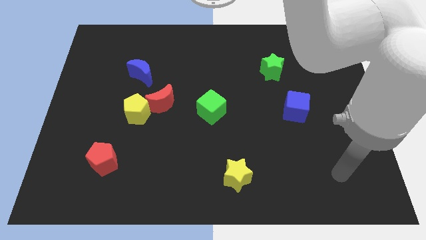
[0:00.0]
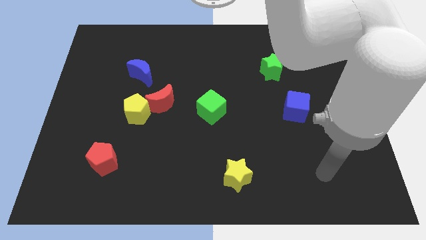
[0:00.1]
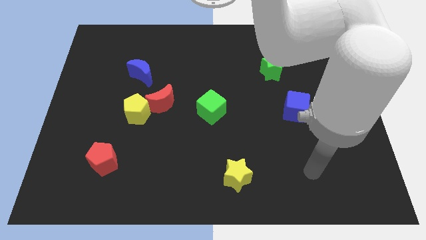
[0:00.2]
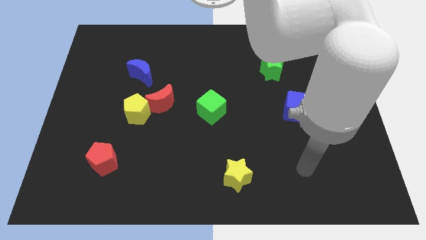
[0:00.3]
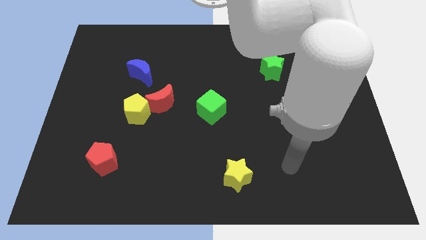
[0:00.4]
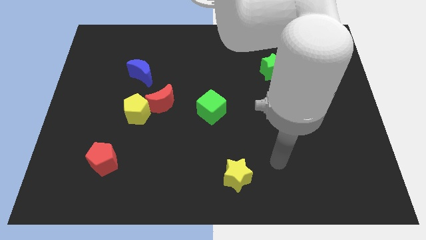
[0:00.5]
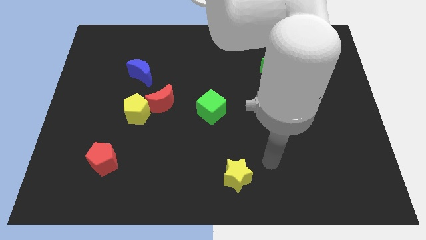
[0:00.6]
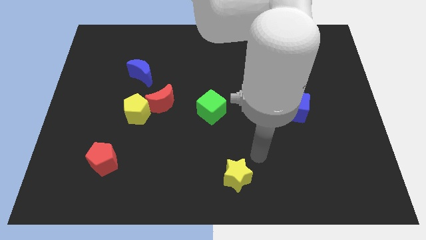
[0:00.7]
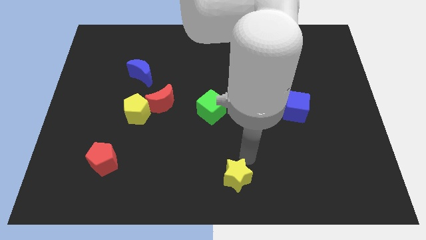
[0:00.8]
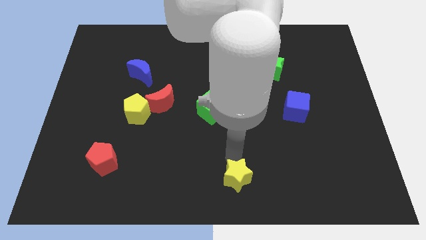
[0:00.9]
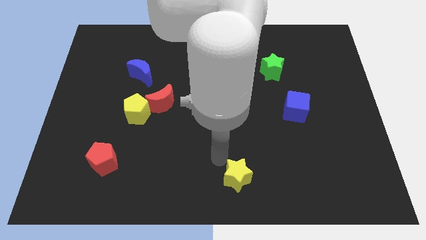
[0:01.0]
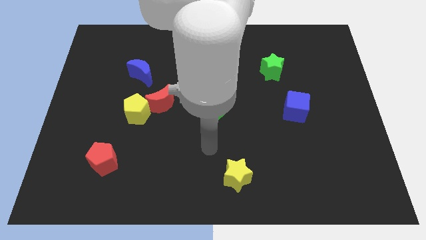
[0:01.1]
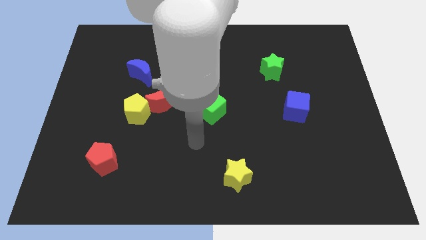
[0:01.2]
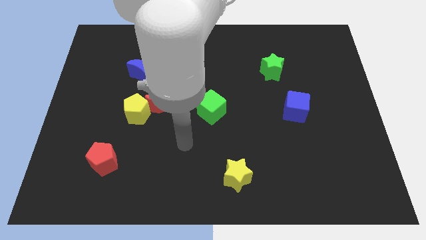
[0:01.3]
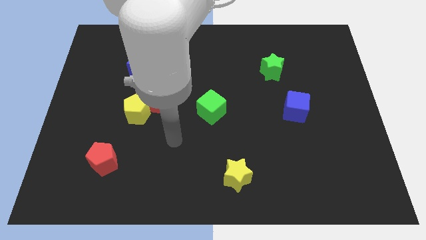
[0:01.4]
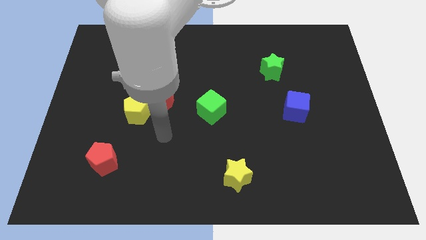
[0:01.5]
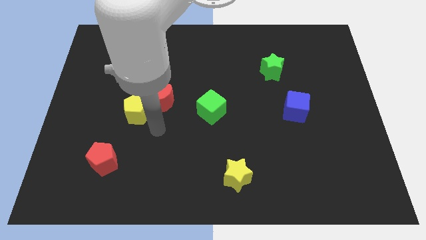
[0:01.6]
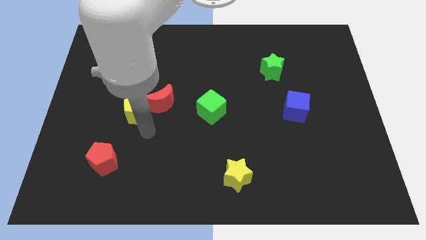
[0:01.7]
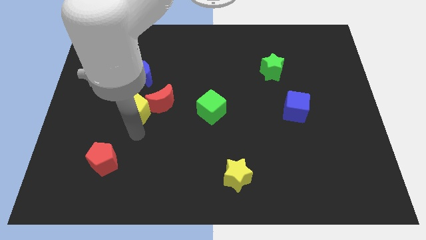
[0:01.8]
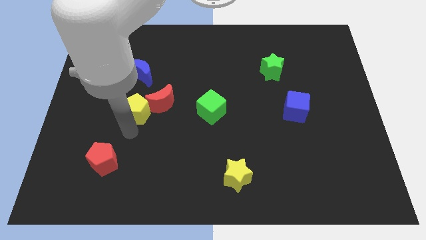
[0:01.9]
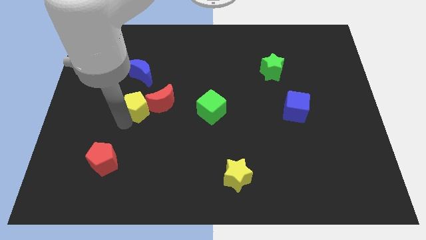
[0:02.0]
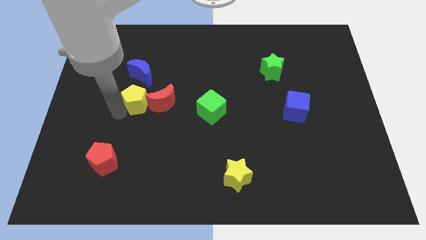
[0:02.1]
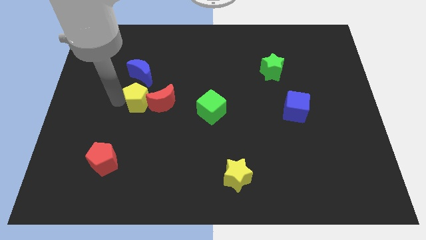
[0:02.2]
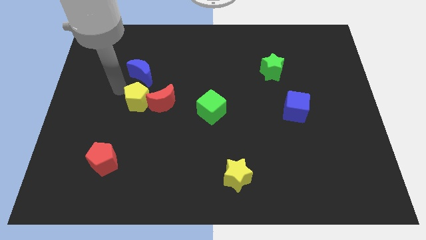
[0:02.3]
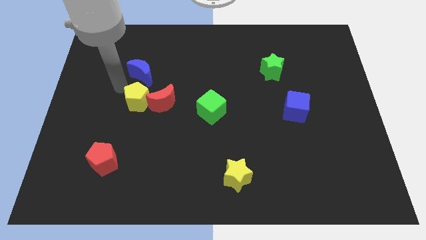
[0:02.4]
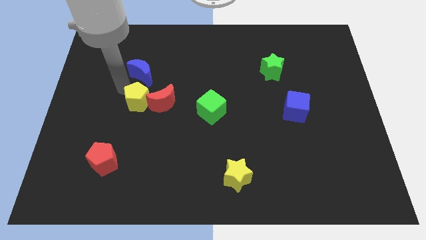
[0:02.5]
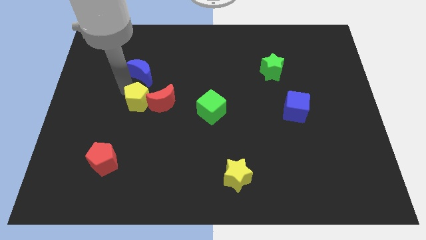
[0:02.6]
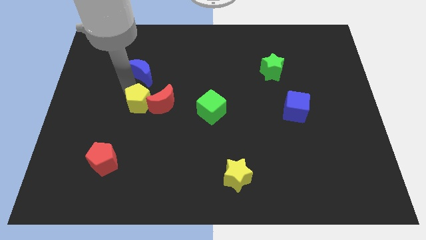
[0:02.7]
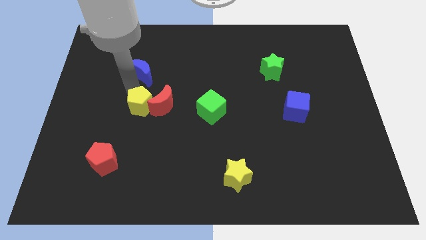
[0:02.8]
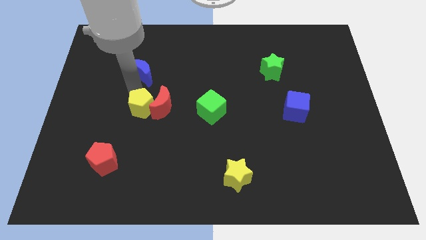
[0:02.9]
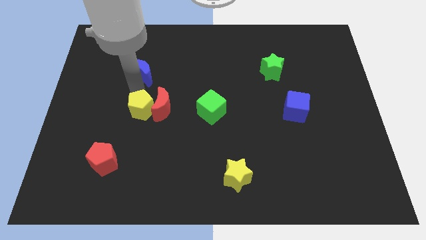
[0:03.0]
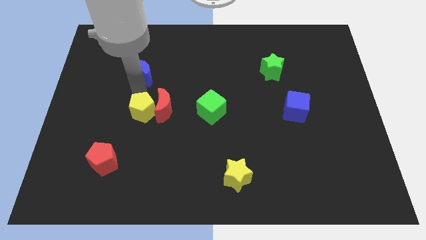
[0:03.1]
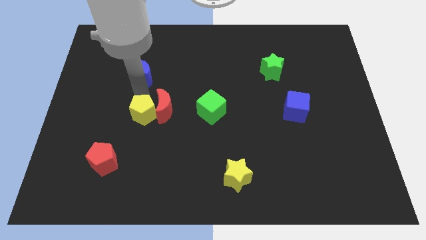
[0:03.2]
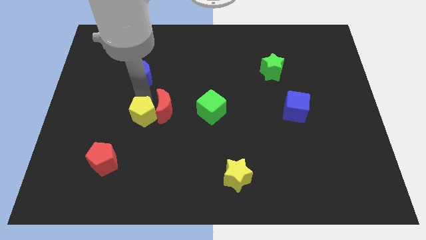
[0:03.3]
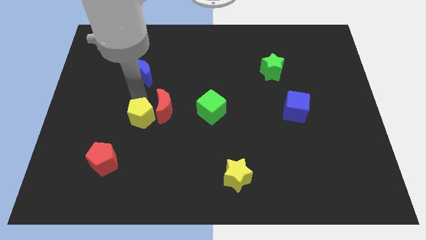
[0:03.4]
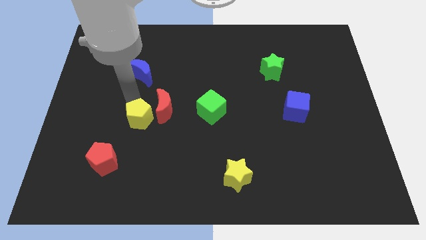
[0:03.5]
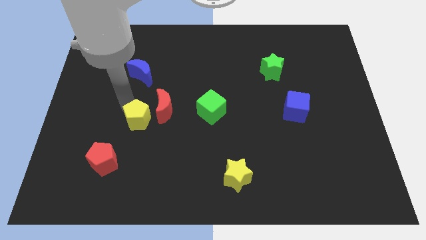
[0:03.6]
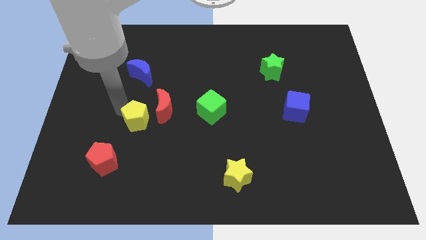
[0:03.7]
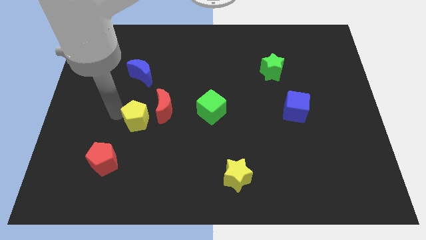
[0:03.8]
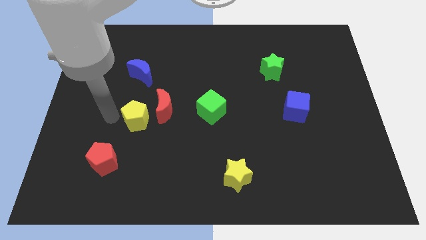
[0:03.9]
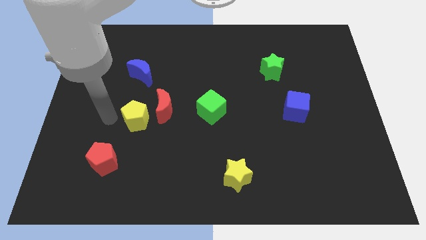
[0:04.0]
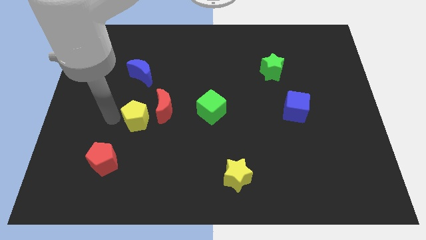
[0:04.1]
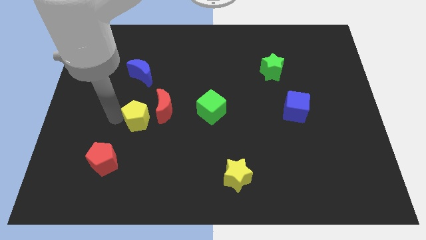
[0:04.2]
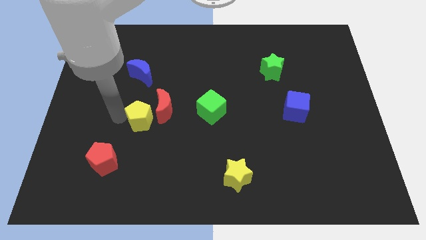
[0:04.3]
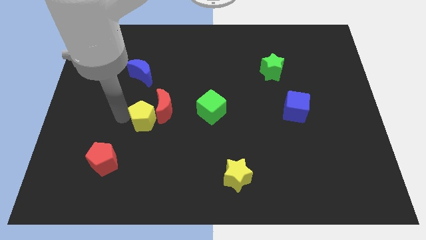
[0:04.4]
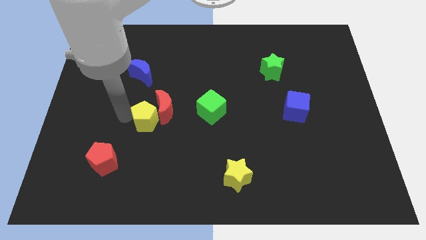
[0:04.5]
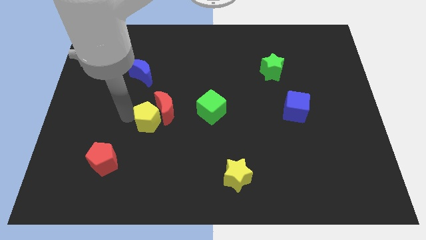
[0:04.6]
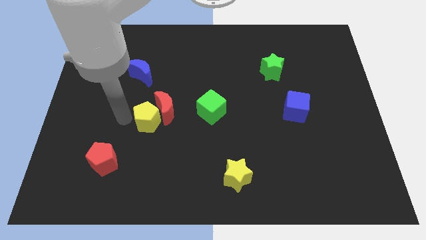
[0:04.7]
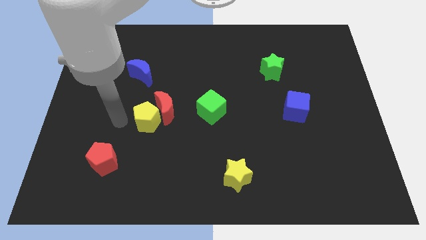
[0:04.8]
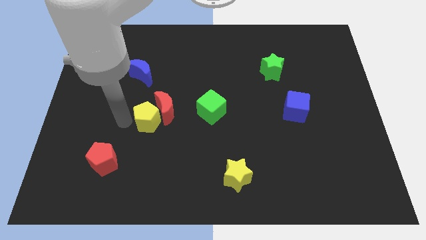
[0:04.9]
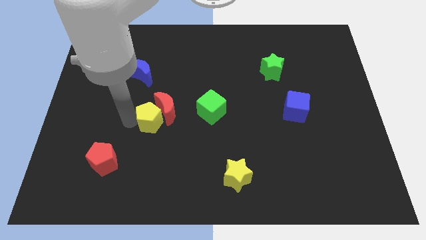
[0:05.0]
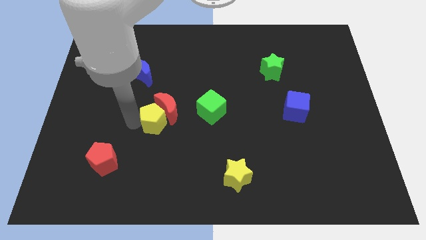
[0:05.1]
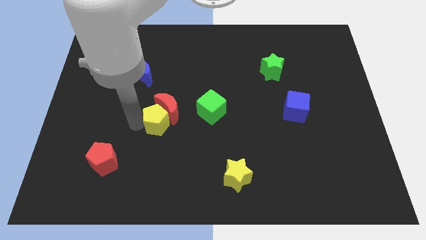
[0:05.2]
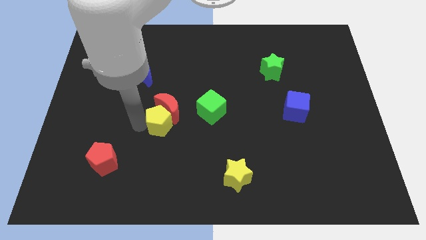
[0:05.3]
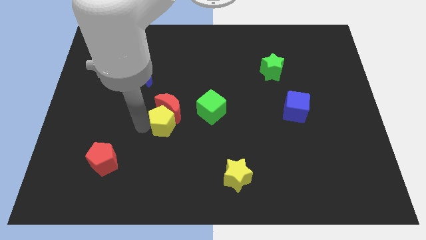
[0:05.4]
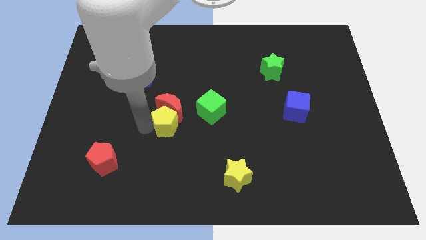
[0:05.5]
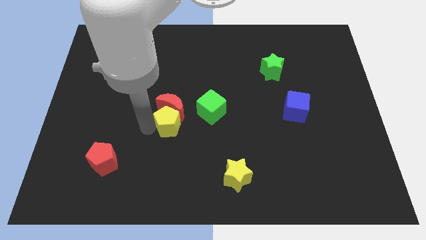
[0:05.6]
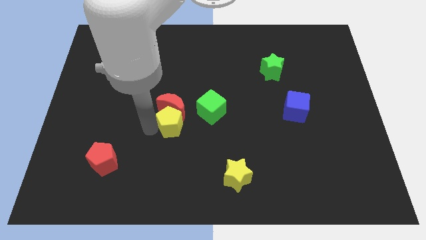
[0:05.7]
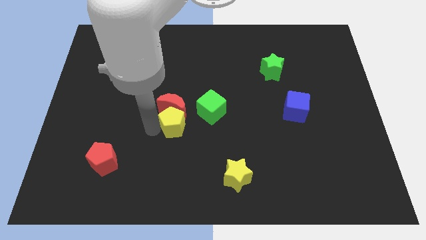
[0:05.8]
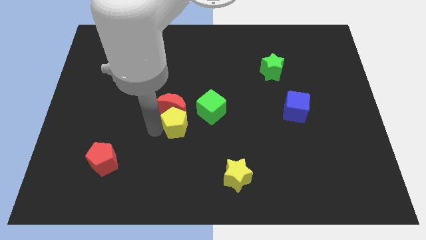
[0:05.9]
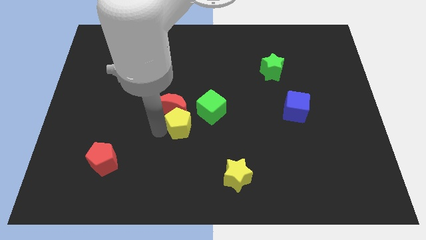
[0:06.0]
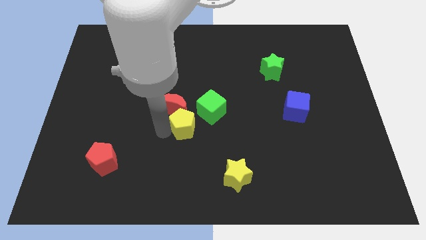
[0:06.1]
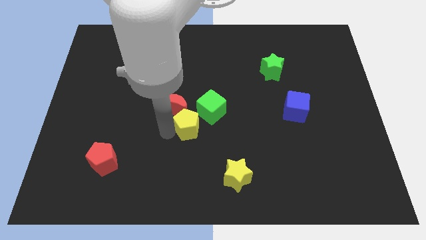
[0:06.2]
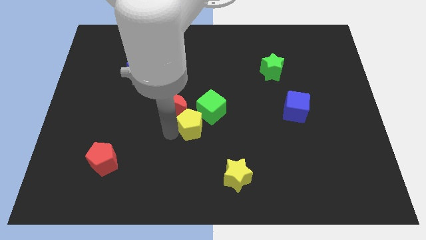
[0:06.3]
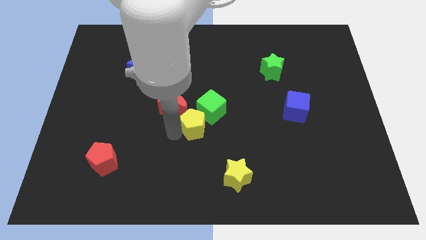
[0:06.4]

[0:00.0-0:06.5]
move the yellow pentagon towards the green cube

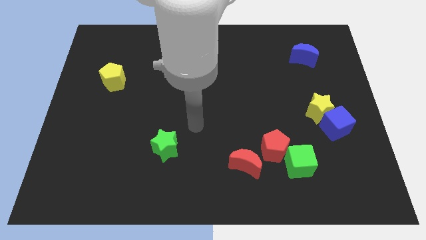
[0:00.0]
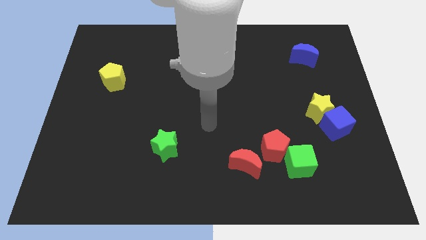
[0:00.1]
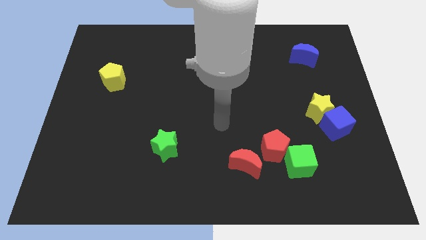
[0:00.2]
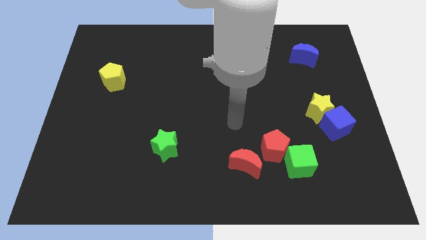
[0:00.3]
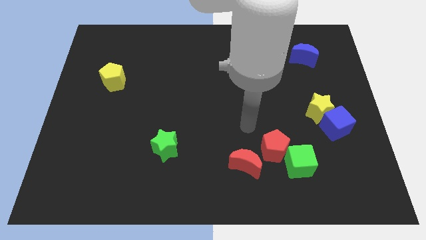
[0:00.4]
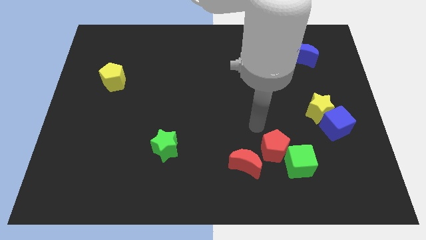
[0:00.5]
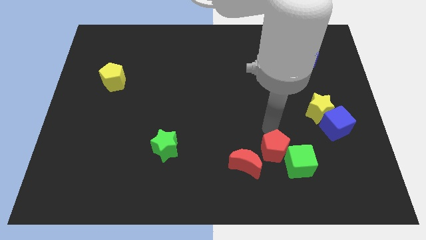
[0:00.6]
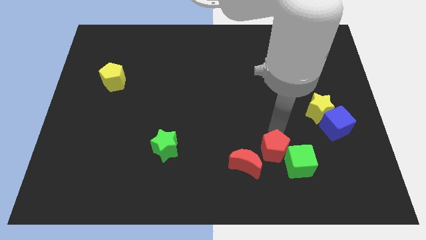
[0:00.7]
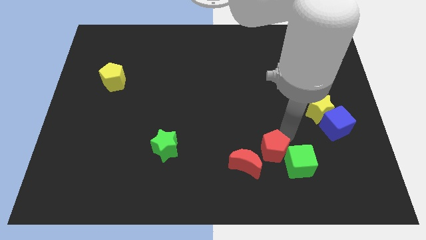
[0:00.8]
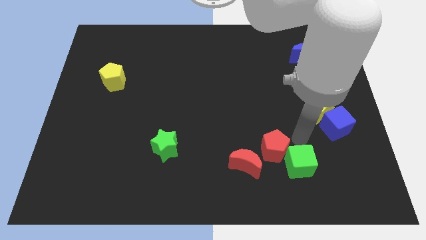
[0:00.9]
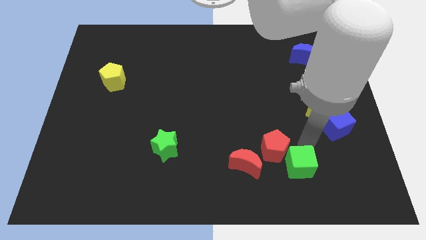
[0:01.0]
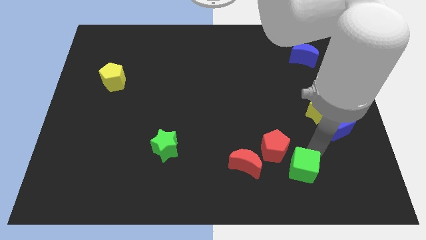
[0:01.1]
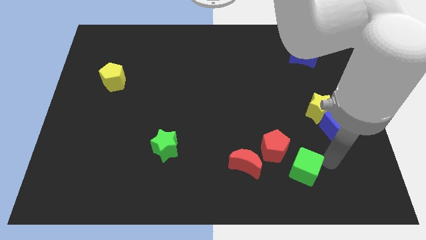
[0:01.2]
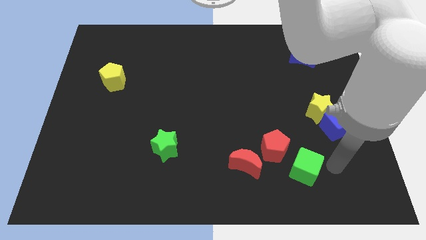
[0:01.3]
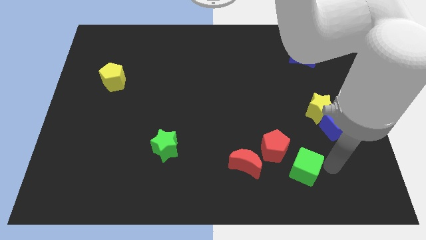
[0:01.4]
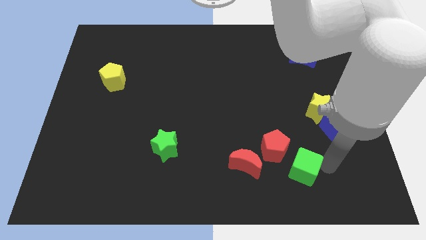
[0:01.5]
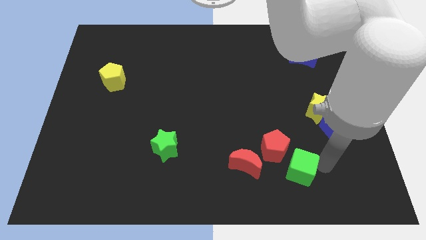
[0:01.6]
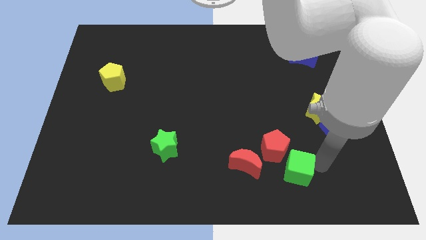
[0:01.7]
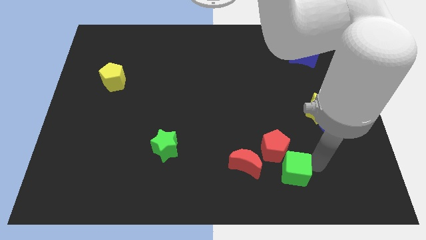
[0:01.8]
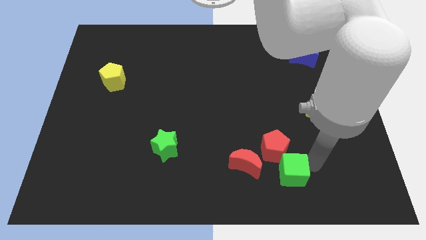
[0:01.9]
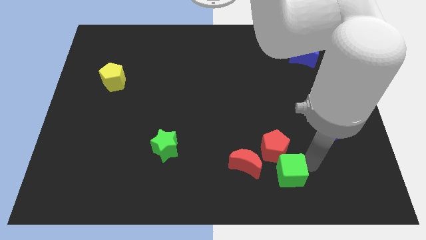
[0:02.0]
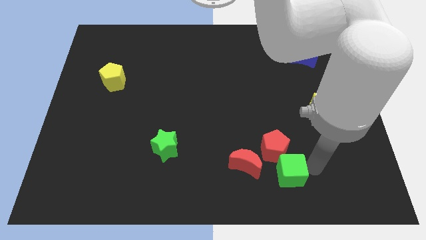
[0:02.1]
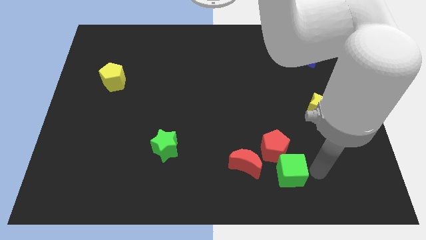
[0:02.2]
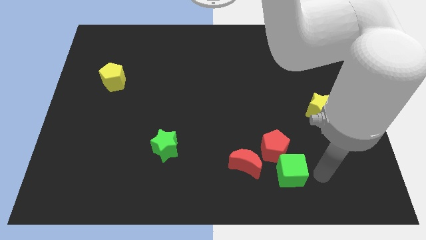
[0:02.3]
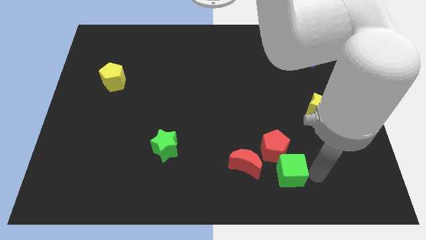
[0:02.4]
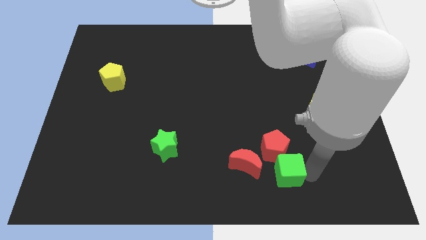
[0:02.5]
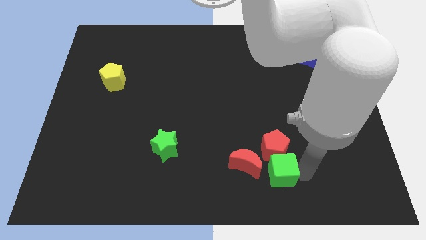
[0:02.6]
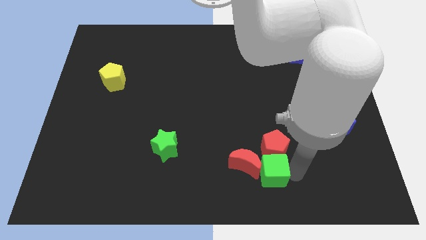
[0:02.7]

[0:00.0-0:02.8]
move the green cube next to the red moon
